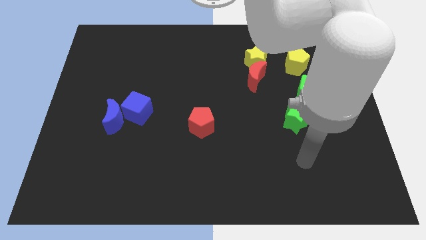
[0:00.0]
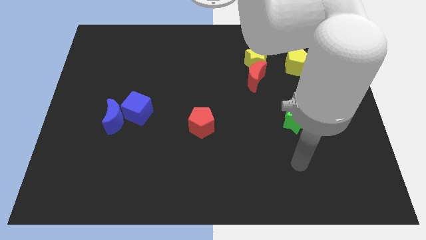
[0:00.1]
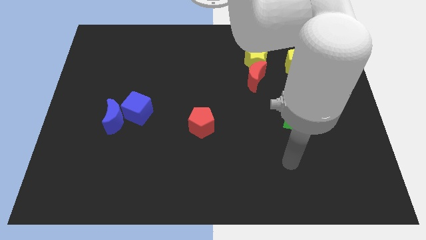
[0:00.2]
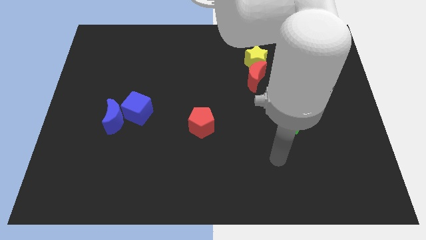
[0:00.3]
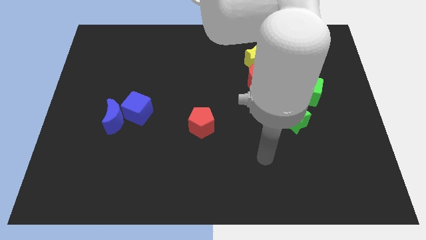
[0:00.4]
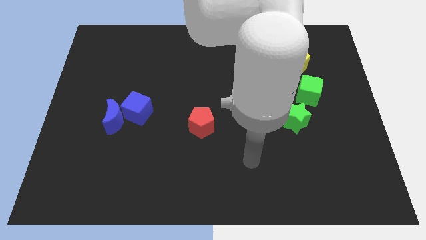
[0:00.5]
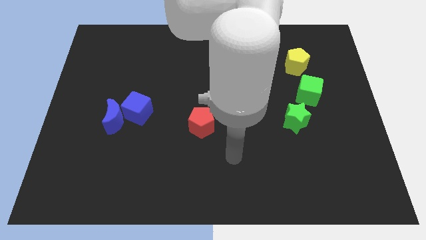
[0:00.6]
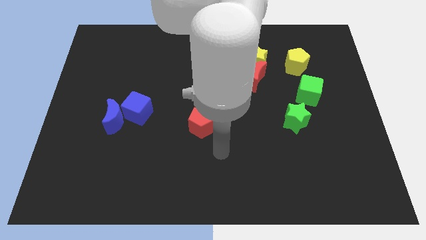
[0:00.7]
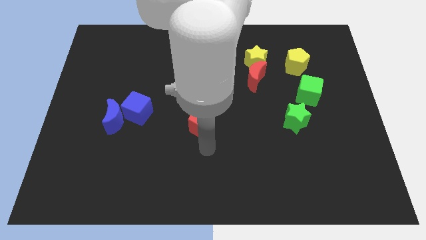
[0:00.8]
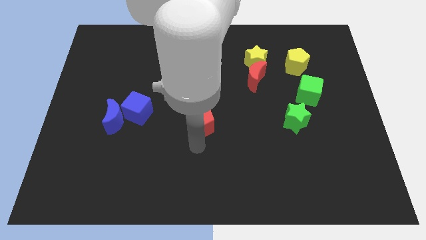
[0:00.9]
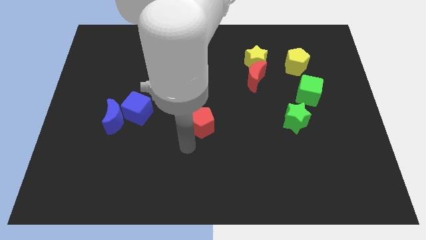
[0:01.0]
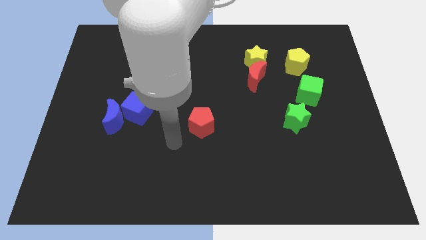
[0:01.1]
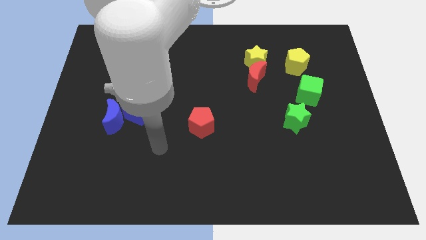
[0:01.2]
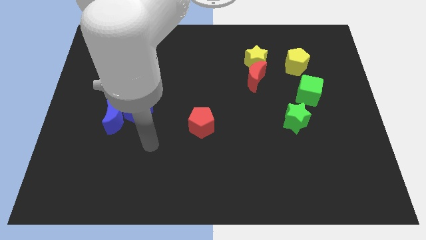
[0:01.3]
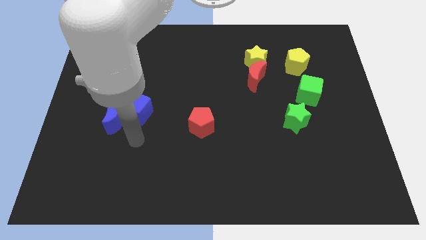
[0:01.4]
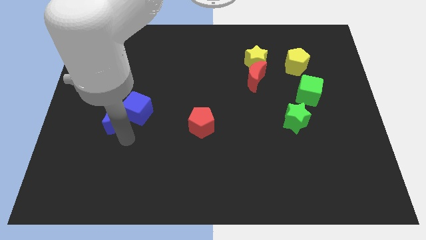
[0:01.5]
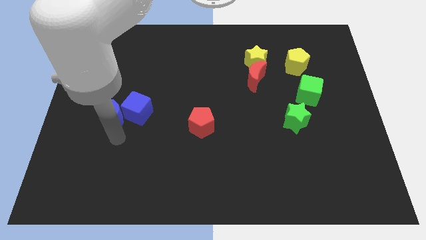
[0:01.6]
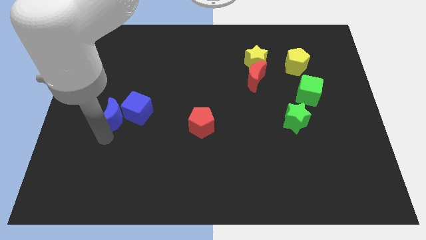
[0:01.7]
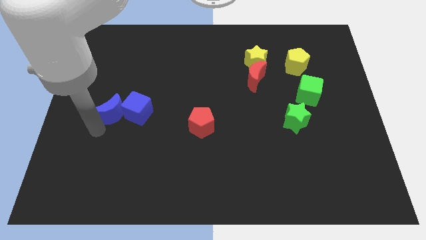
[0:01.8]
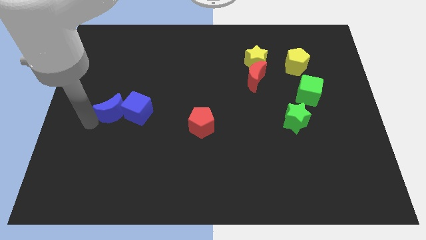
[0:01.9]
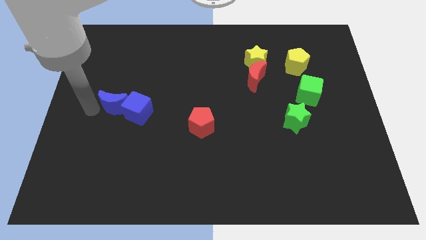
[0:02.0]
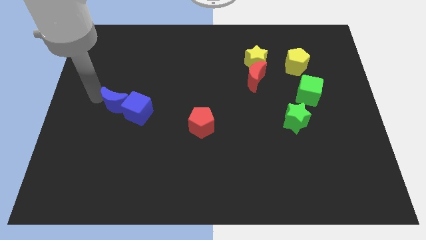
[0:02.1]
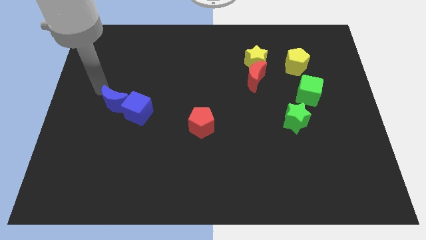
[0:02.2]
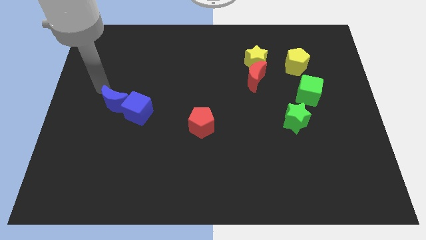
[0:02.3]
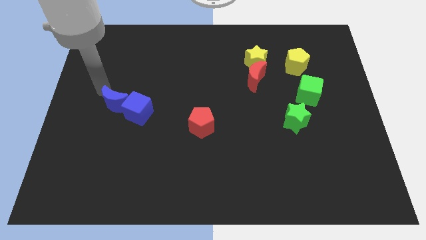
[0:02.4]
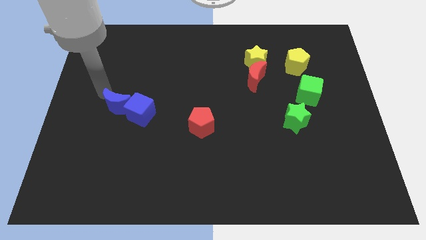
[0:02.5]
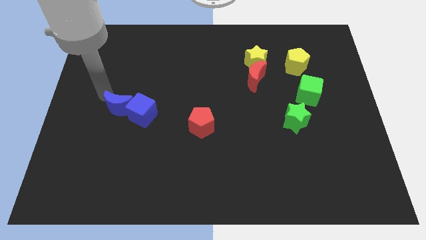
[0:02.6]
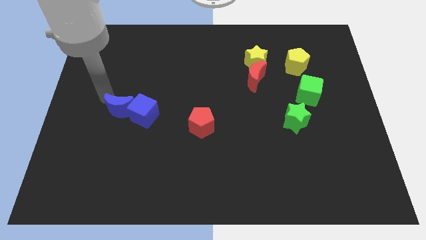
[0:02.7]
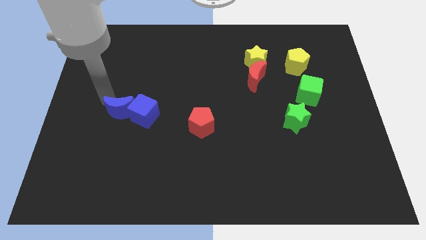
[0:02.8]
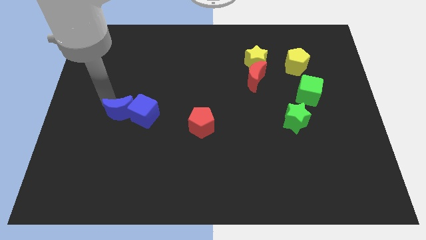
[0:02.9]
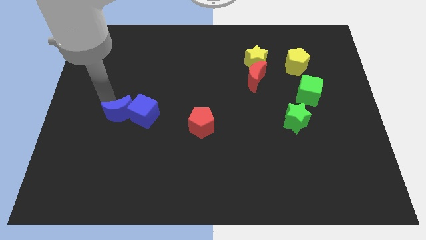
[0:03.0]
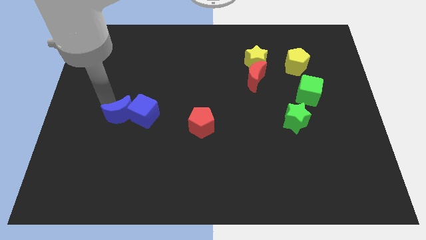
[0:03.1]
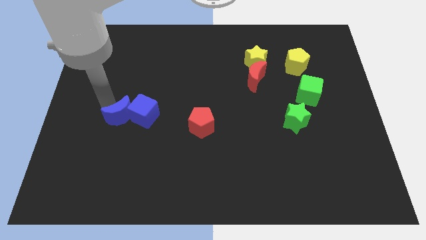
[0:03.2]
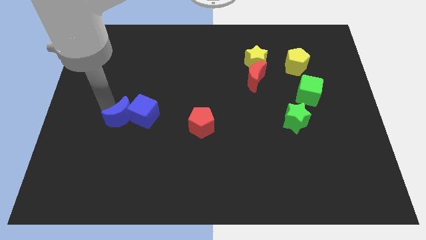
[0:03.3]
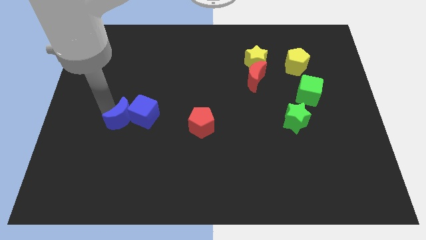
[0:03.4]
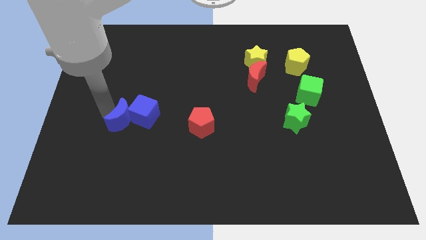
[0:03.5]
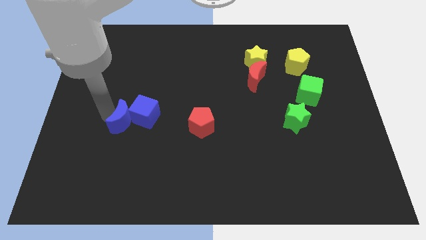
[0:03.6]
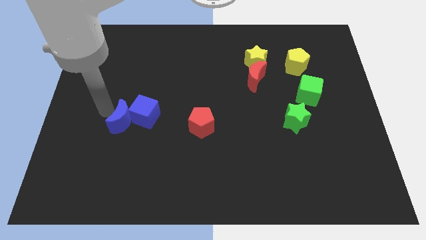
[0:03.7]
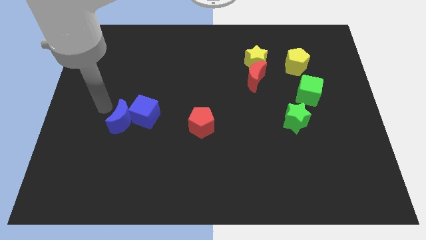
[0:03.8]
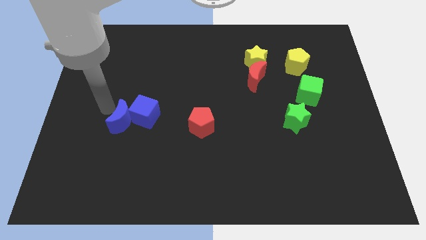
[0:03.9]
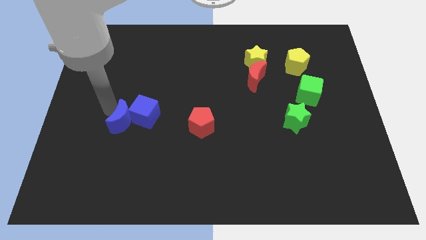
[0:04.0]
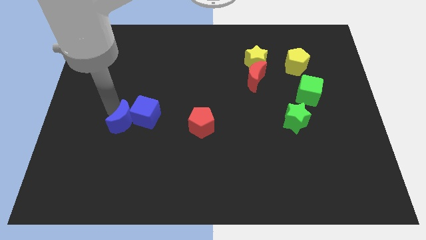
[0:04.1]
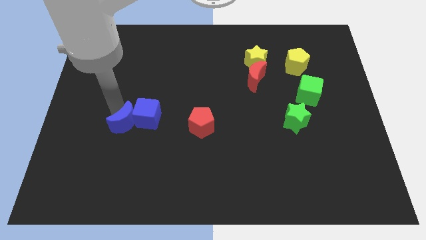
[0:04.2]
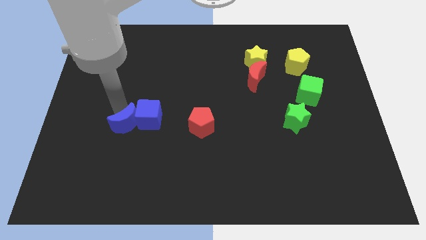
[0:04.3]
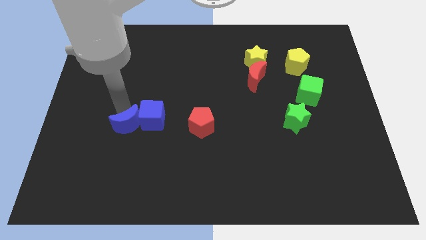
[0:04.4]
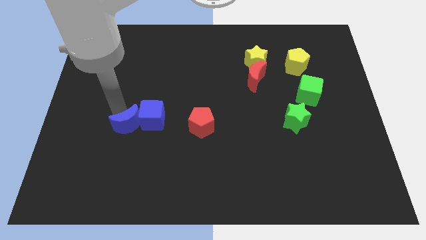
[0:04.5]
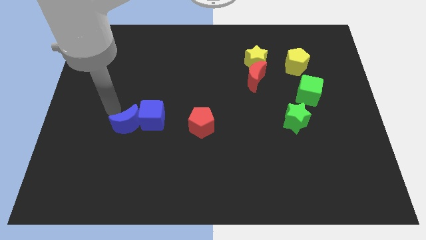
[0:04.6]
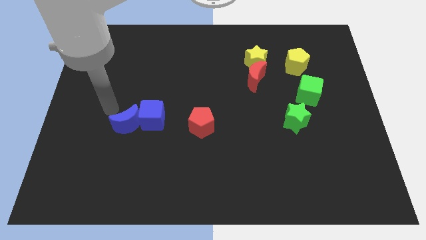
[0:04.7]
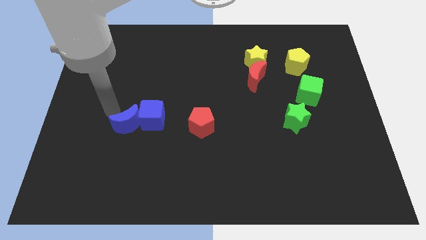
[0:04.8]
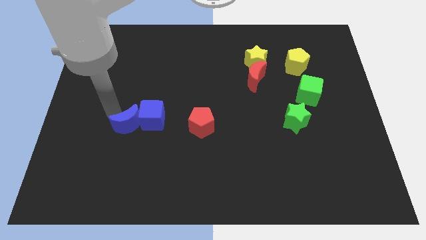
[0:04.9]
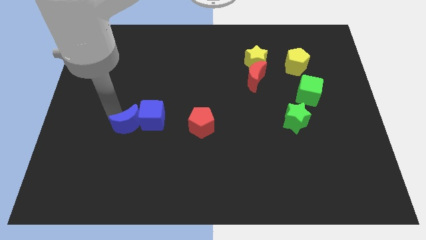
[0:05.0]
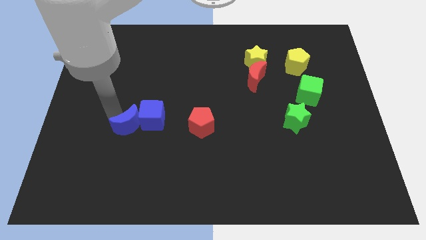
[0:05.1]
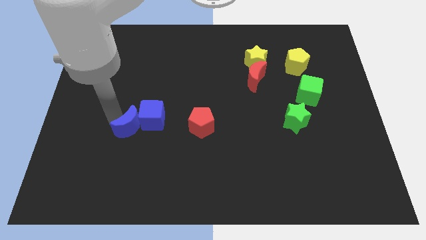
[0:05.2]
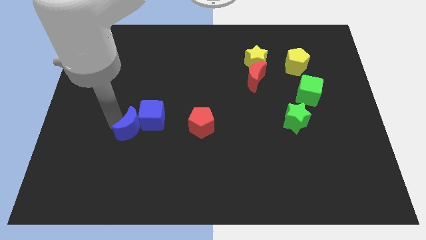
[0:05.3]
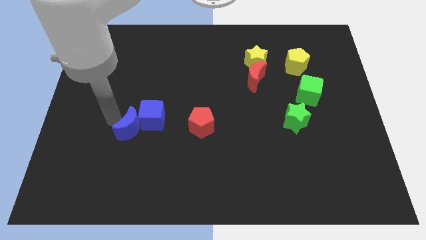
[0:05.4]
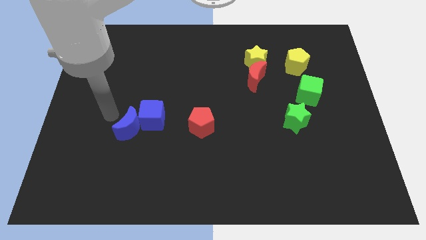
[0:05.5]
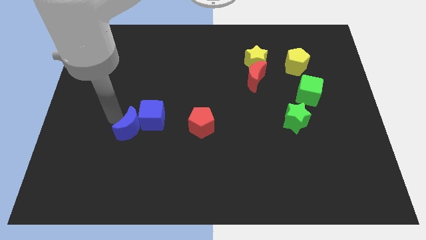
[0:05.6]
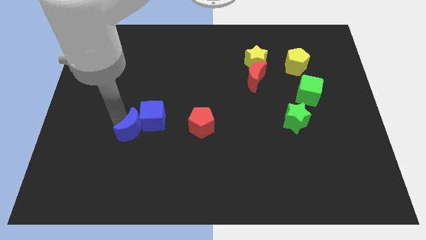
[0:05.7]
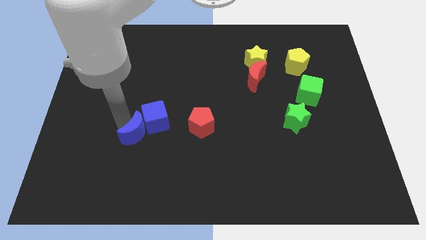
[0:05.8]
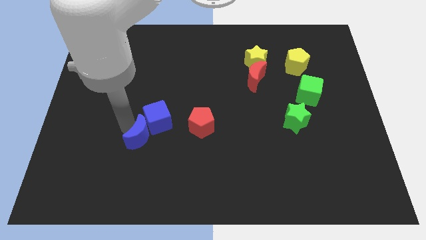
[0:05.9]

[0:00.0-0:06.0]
slightly slide the blue moon downwards and then right

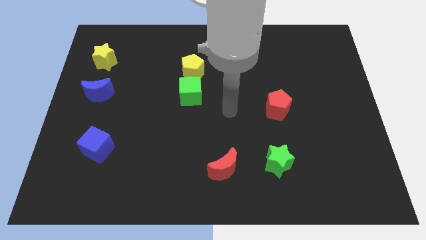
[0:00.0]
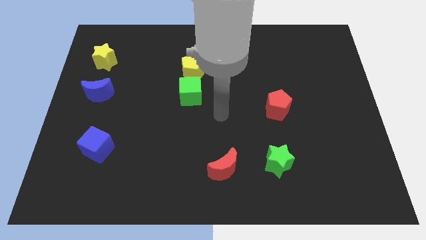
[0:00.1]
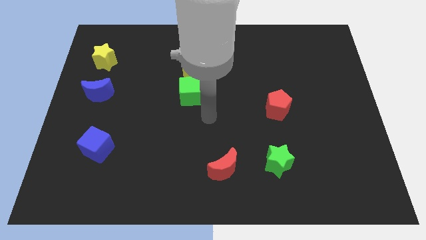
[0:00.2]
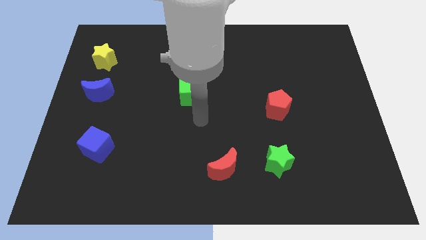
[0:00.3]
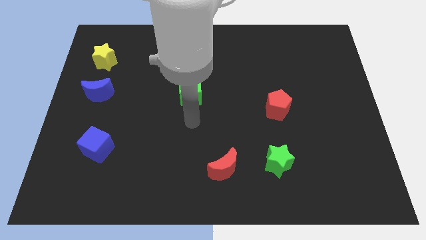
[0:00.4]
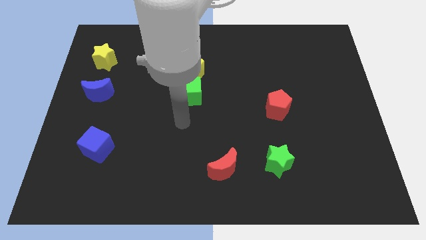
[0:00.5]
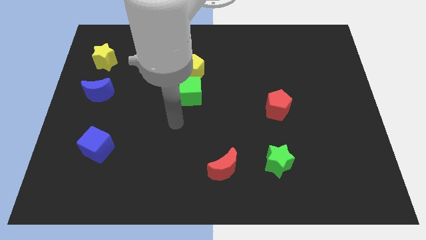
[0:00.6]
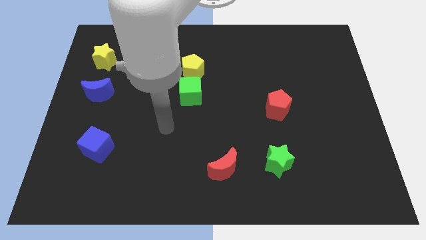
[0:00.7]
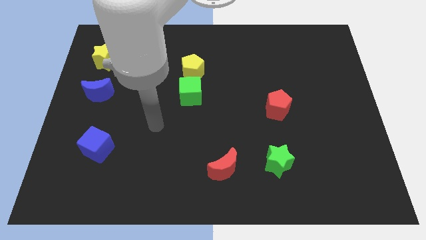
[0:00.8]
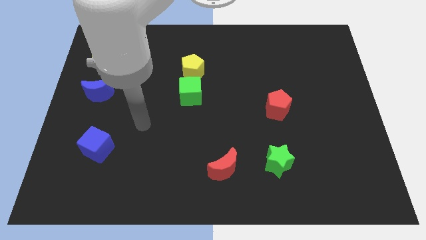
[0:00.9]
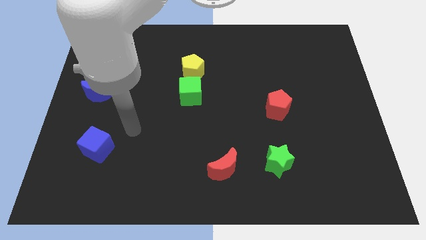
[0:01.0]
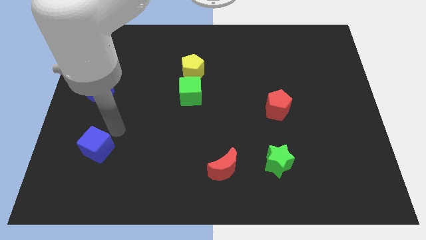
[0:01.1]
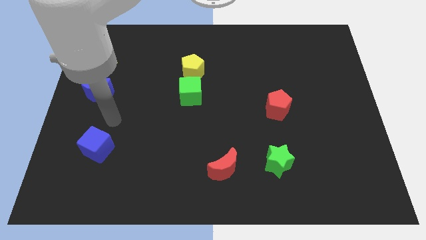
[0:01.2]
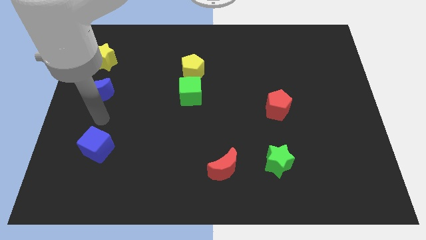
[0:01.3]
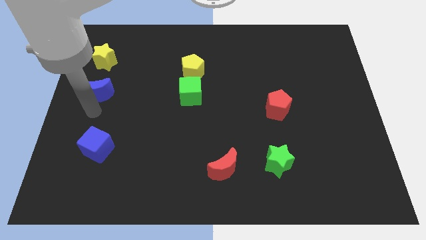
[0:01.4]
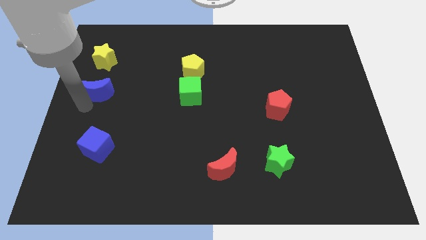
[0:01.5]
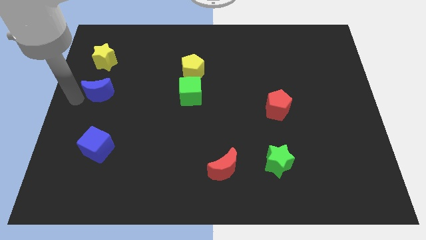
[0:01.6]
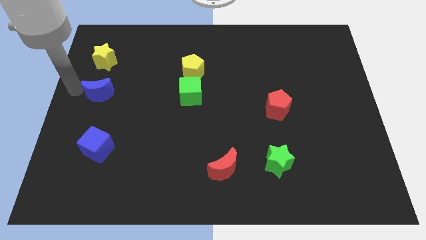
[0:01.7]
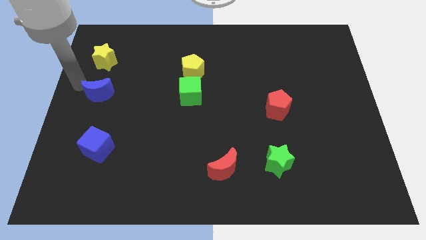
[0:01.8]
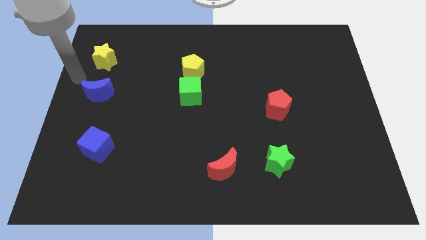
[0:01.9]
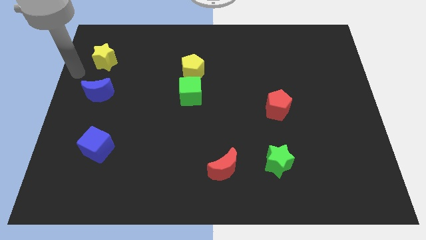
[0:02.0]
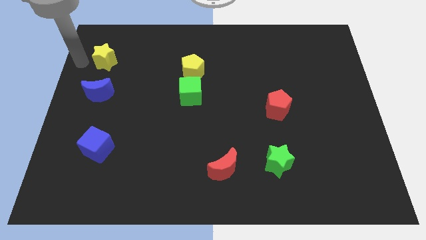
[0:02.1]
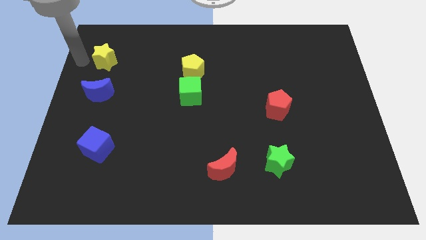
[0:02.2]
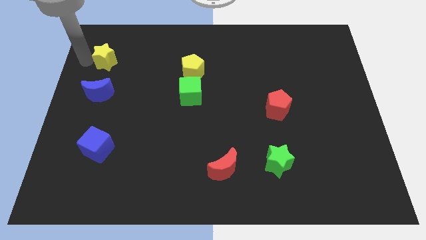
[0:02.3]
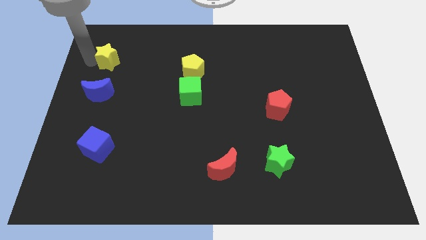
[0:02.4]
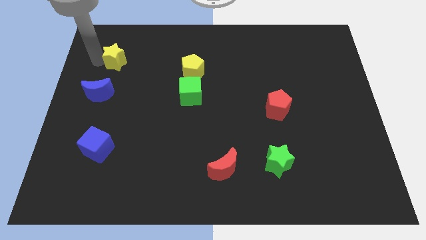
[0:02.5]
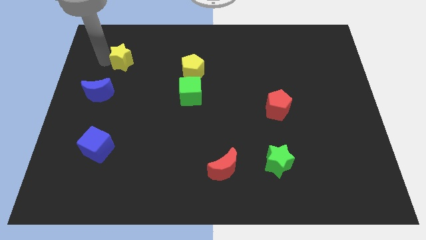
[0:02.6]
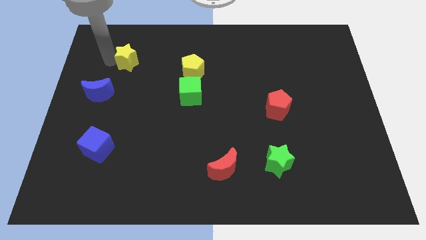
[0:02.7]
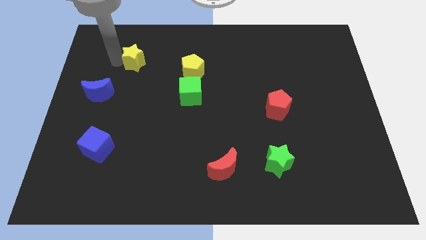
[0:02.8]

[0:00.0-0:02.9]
move the yellow star a bit right
